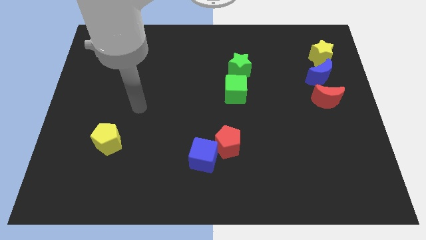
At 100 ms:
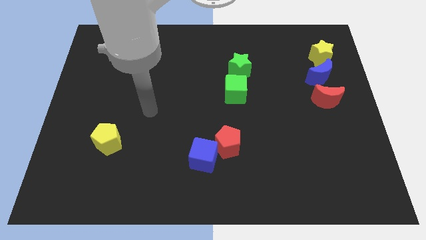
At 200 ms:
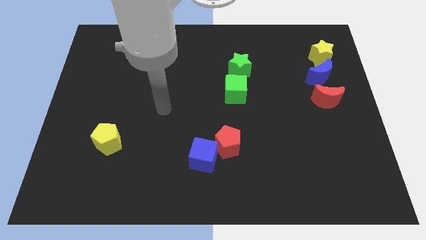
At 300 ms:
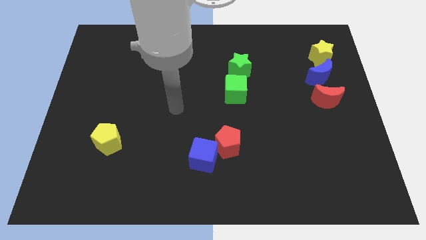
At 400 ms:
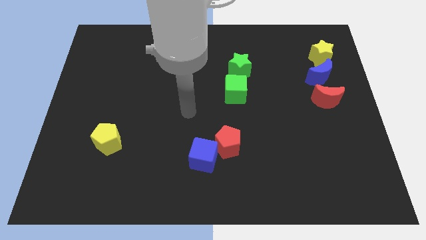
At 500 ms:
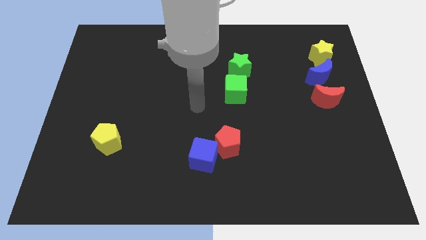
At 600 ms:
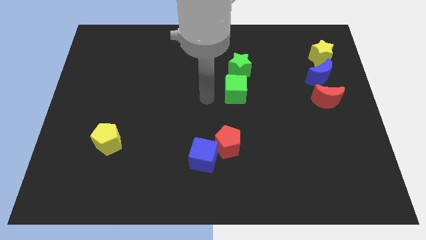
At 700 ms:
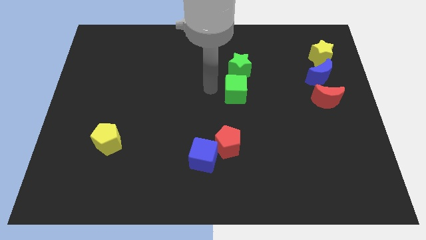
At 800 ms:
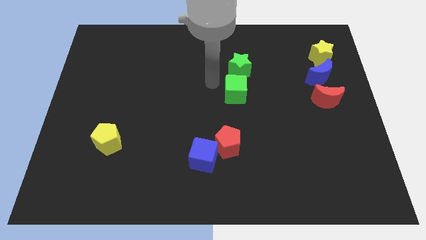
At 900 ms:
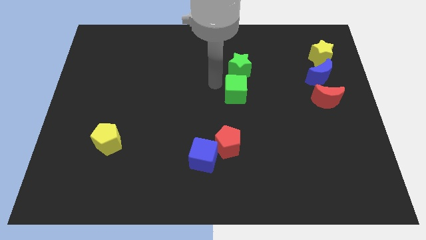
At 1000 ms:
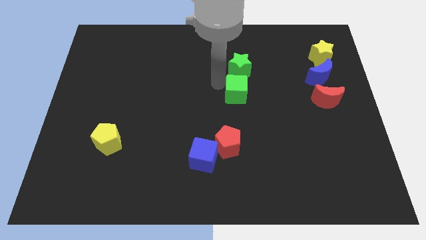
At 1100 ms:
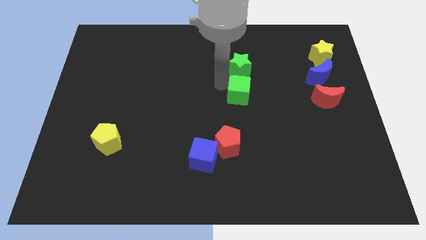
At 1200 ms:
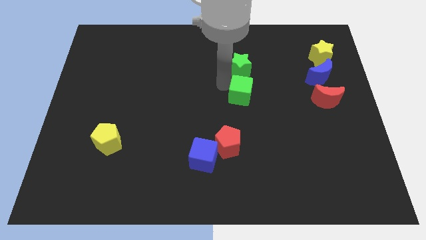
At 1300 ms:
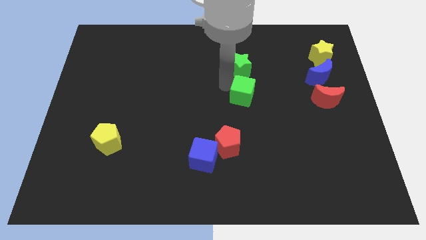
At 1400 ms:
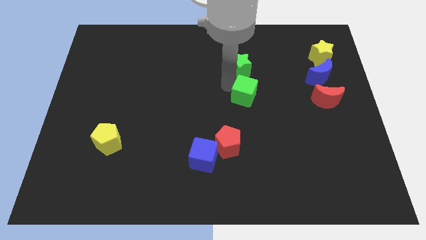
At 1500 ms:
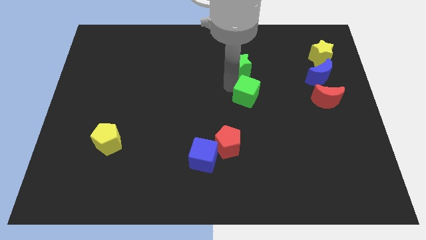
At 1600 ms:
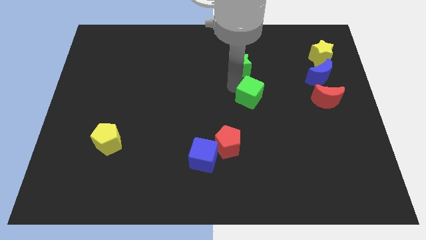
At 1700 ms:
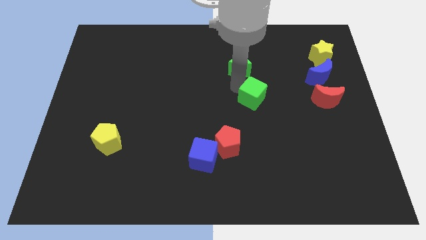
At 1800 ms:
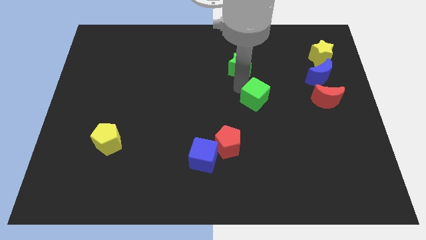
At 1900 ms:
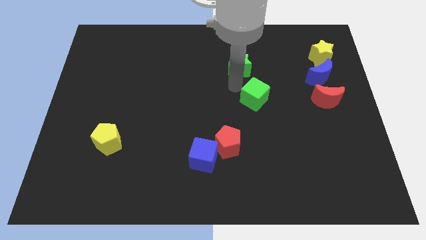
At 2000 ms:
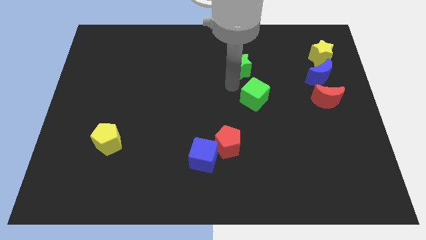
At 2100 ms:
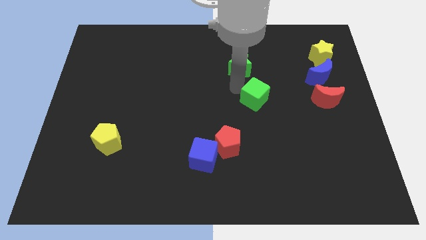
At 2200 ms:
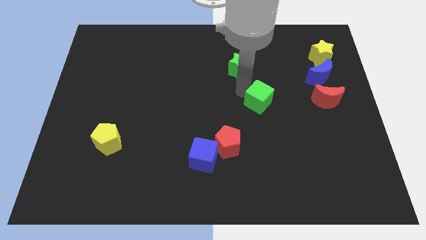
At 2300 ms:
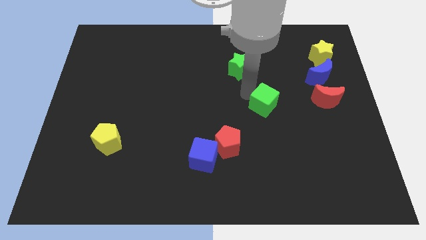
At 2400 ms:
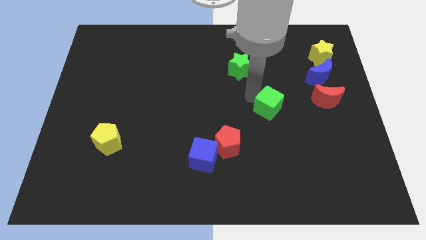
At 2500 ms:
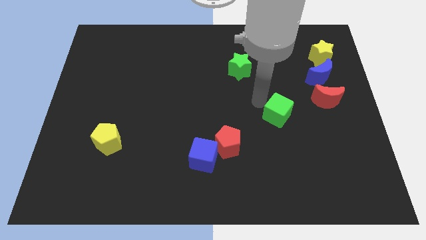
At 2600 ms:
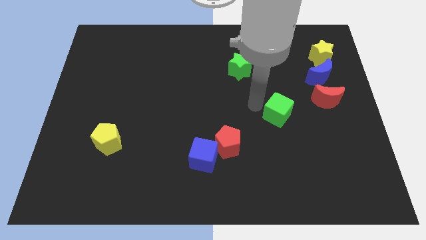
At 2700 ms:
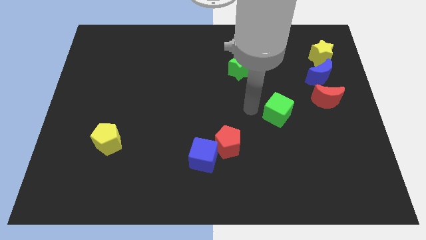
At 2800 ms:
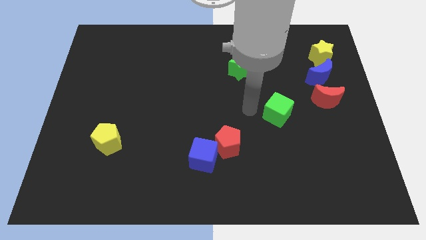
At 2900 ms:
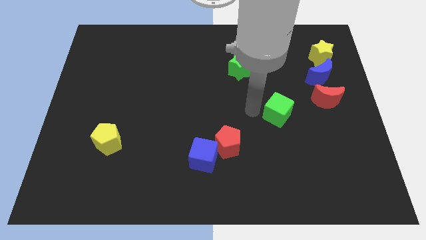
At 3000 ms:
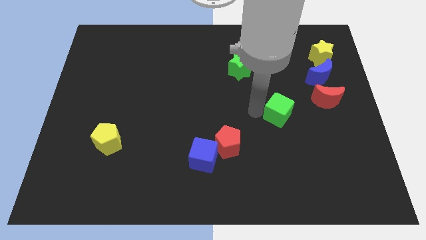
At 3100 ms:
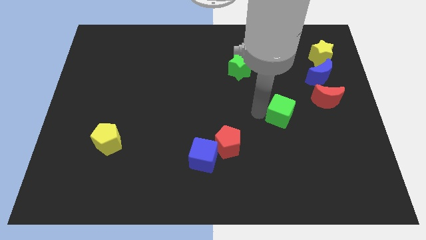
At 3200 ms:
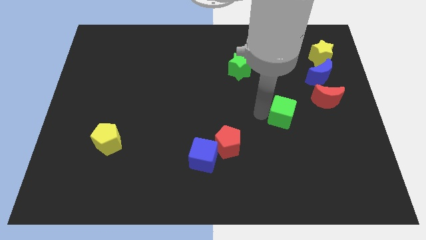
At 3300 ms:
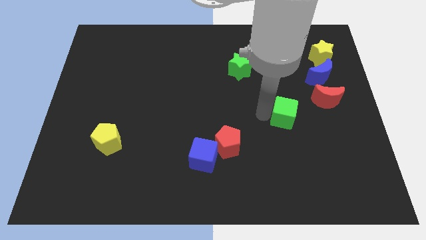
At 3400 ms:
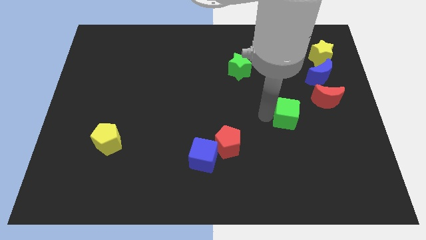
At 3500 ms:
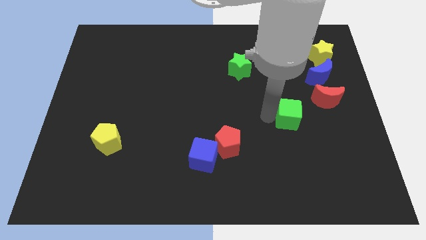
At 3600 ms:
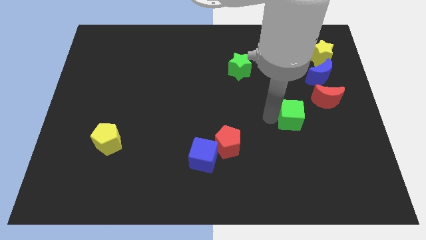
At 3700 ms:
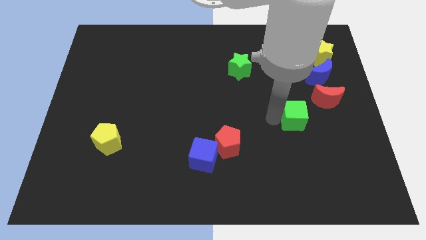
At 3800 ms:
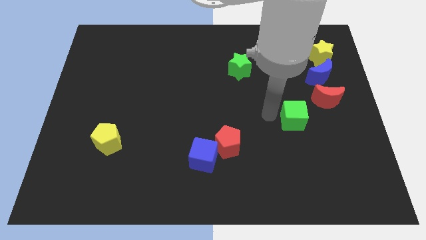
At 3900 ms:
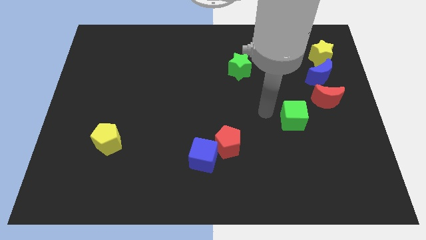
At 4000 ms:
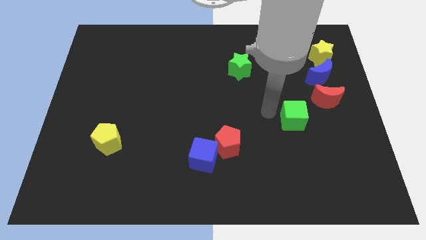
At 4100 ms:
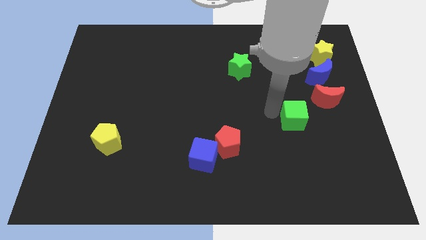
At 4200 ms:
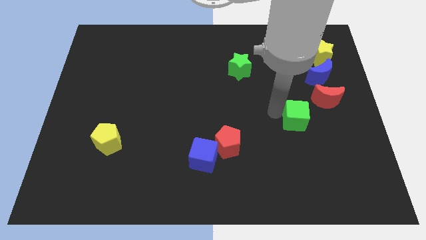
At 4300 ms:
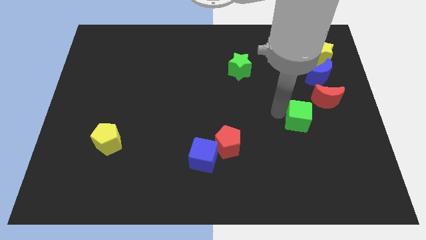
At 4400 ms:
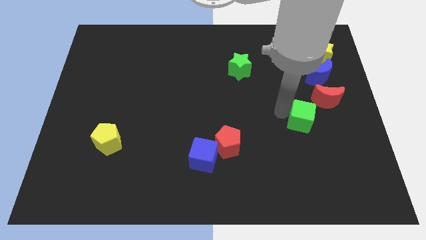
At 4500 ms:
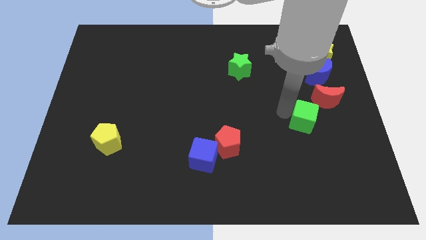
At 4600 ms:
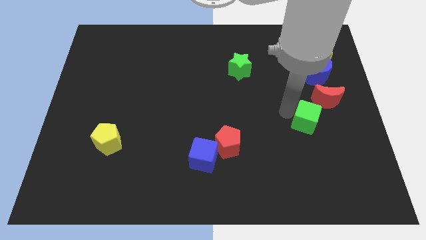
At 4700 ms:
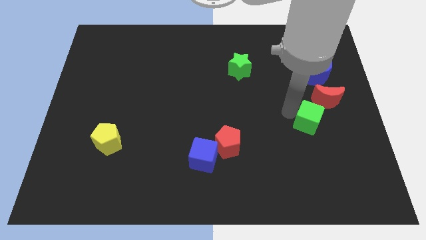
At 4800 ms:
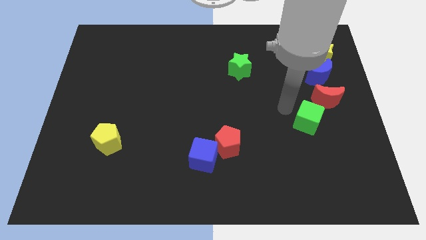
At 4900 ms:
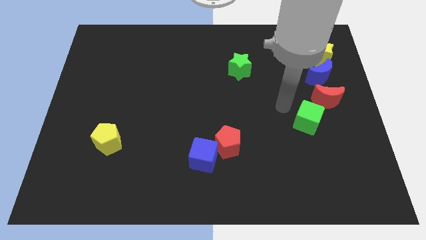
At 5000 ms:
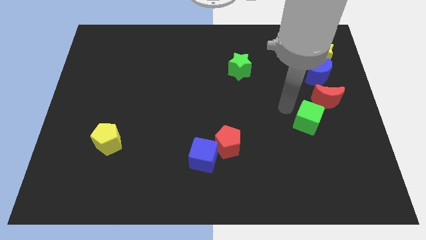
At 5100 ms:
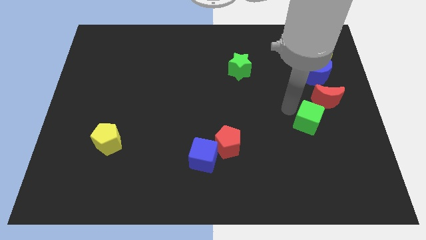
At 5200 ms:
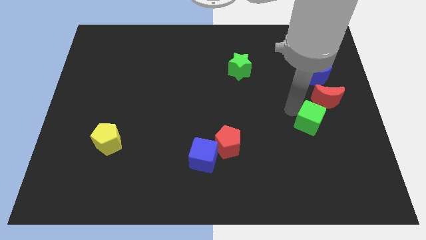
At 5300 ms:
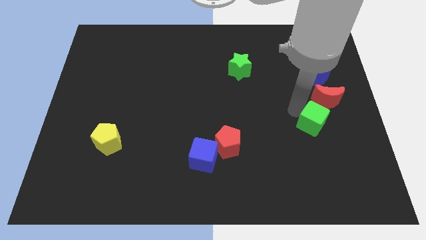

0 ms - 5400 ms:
put the green cube to the bottom side of the red moon
